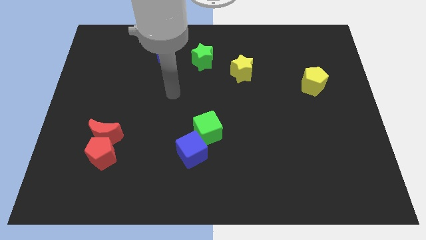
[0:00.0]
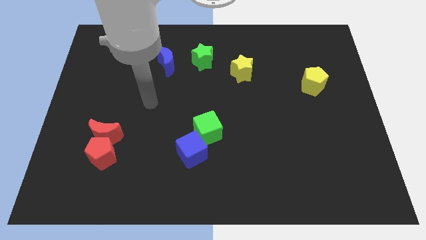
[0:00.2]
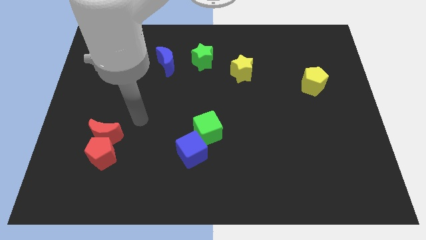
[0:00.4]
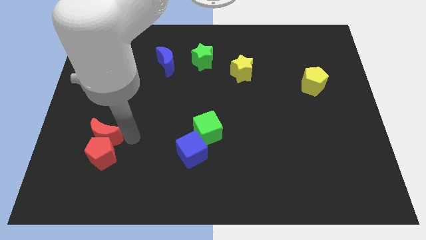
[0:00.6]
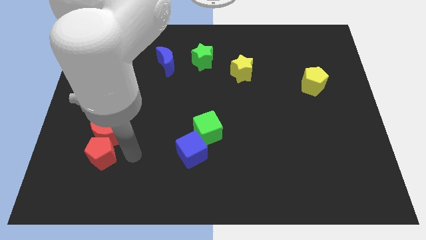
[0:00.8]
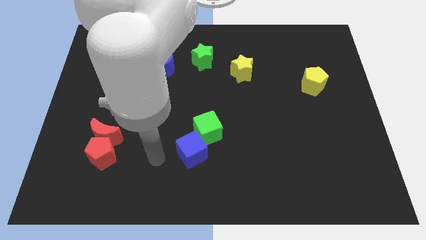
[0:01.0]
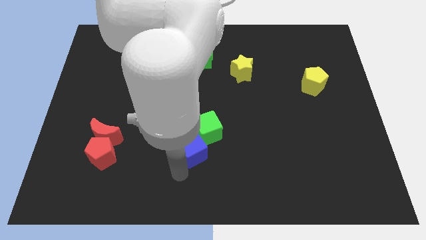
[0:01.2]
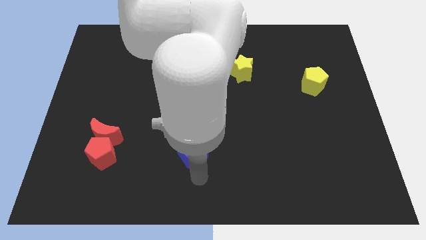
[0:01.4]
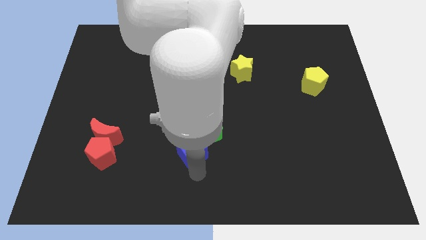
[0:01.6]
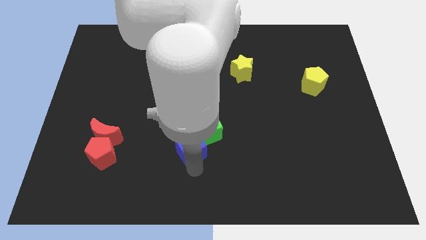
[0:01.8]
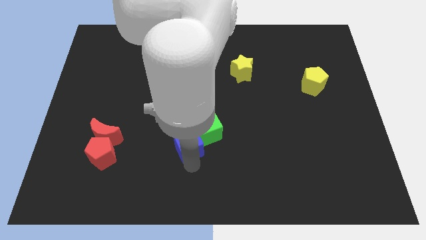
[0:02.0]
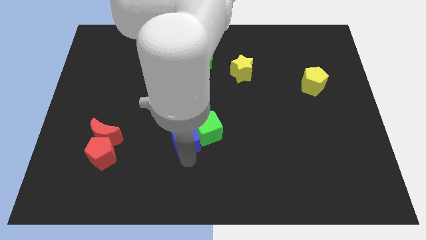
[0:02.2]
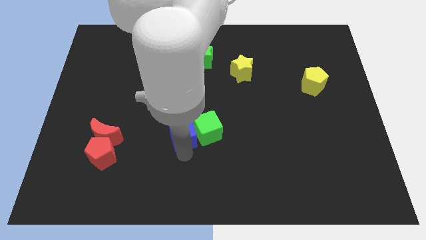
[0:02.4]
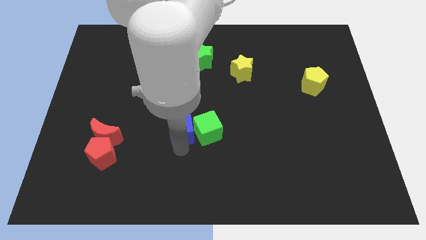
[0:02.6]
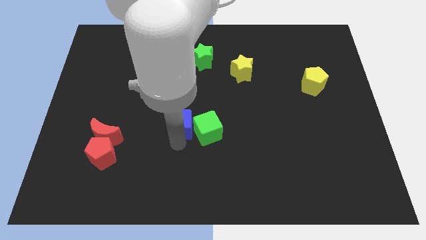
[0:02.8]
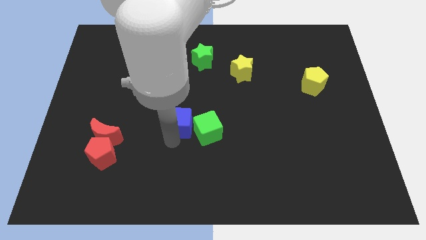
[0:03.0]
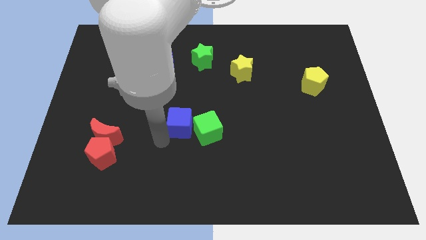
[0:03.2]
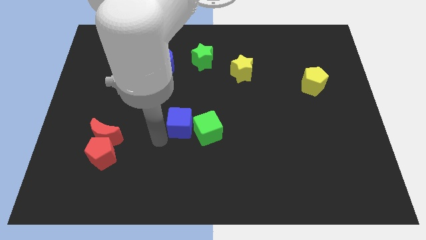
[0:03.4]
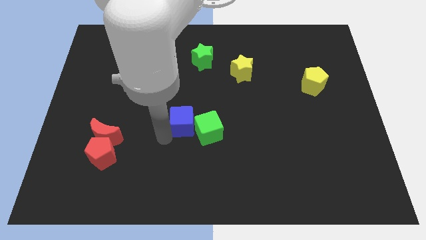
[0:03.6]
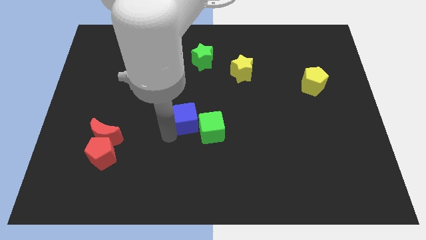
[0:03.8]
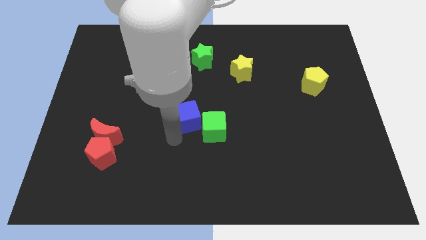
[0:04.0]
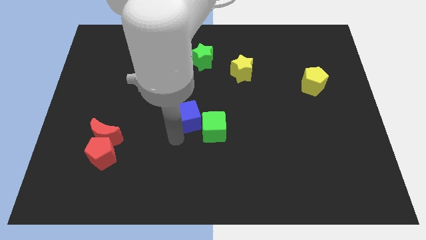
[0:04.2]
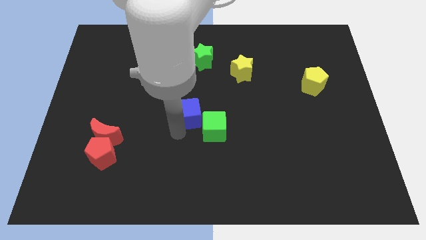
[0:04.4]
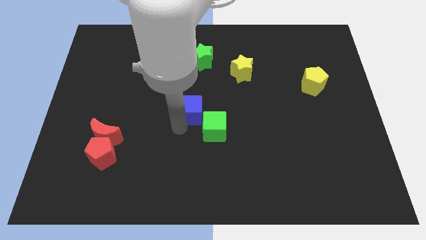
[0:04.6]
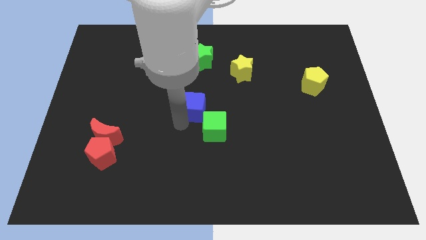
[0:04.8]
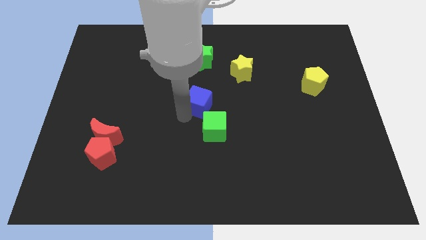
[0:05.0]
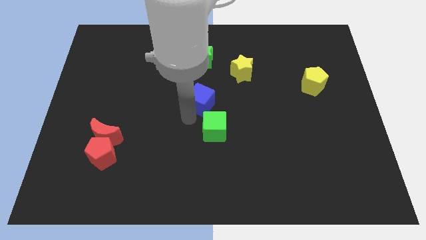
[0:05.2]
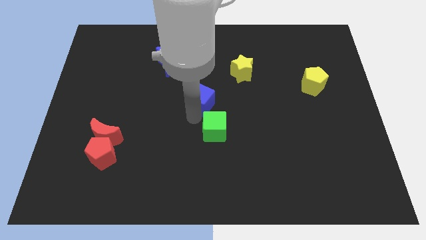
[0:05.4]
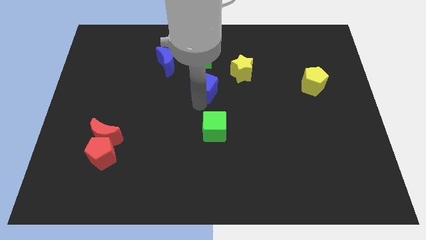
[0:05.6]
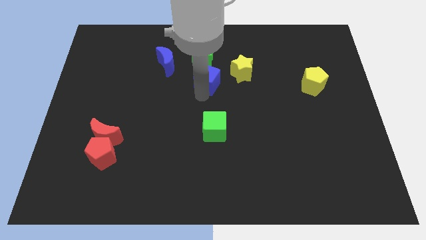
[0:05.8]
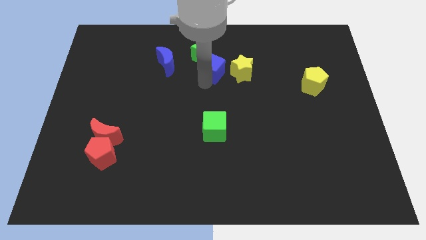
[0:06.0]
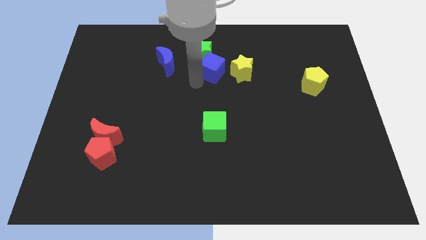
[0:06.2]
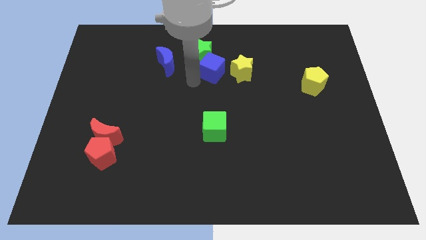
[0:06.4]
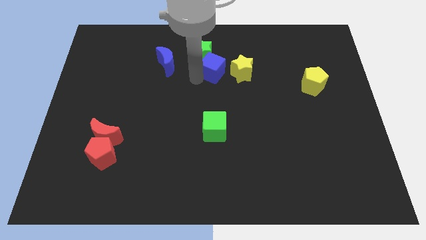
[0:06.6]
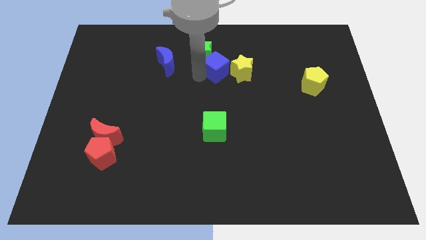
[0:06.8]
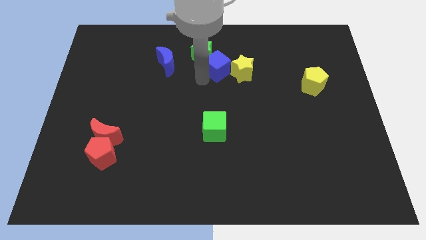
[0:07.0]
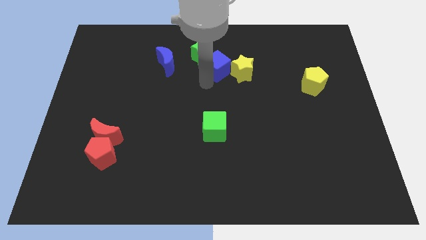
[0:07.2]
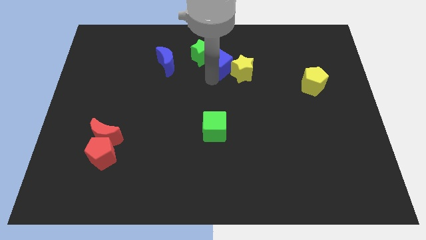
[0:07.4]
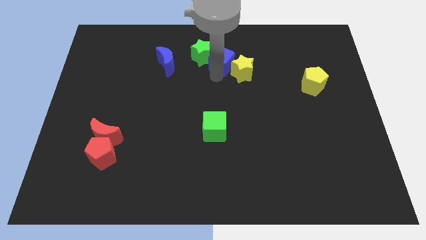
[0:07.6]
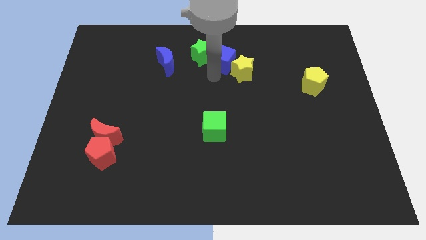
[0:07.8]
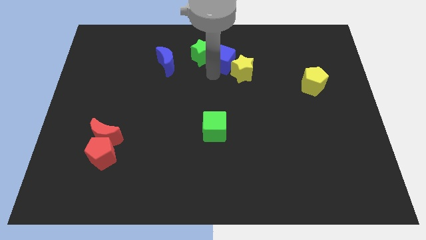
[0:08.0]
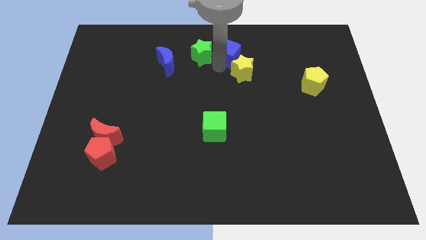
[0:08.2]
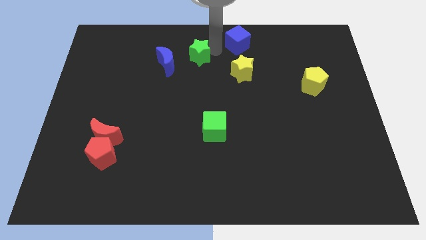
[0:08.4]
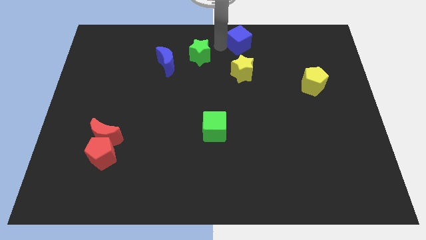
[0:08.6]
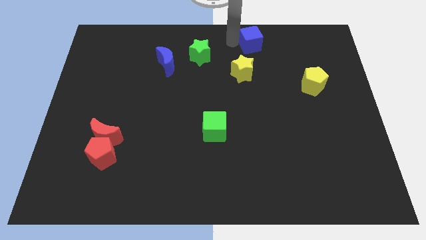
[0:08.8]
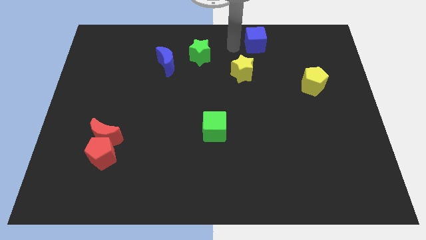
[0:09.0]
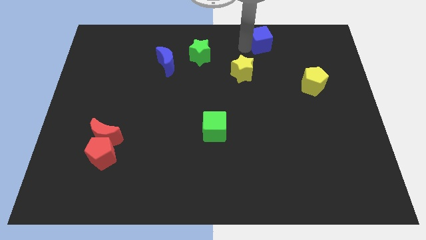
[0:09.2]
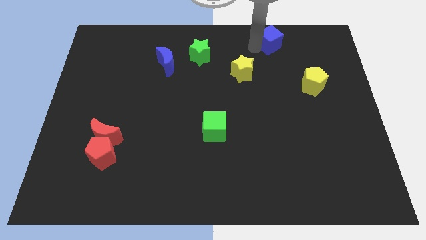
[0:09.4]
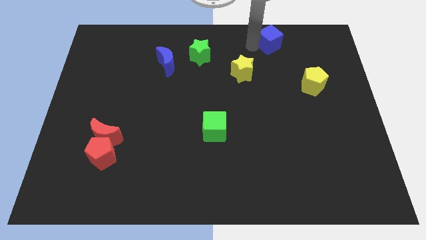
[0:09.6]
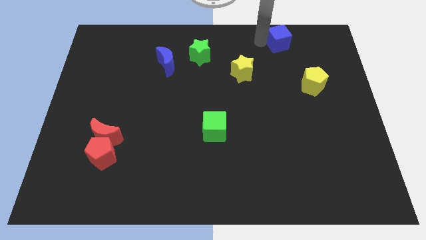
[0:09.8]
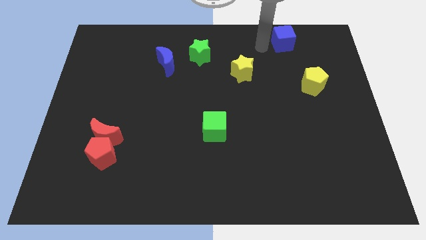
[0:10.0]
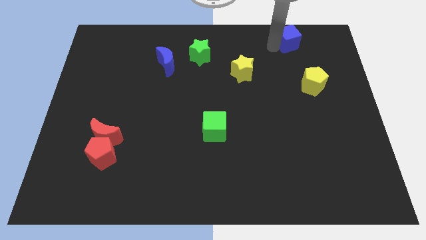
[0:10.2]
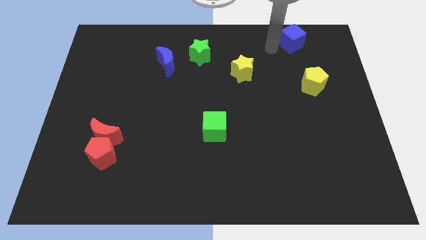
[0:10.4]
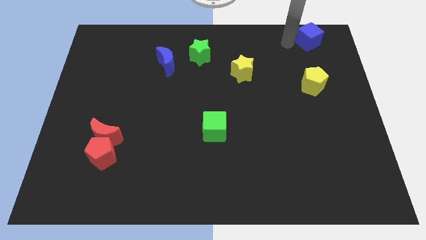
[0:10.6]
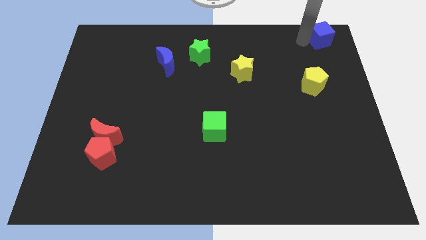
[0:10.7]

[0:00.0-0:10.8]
push the blue cube to the top right corner

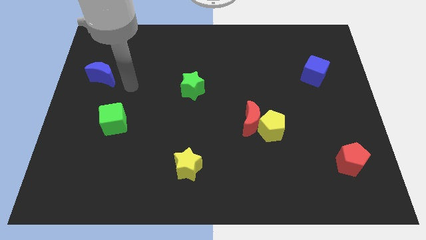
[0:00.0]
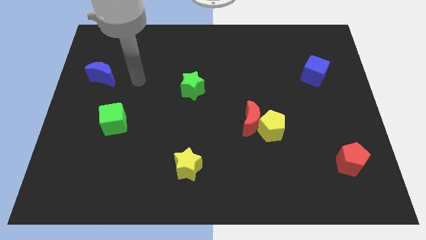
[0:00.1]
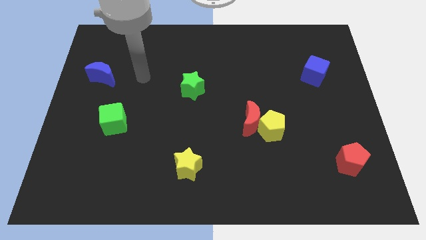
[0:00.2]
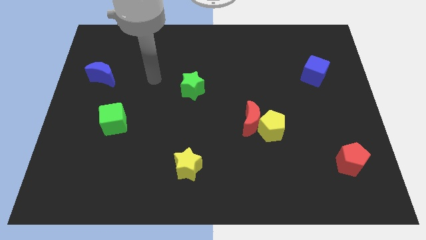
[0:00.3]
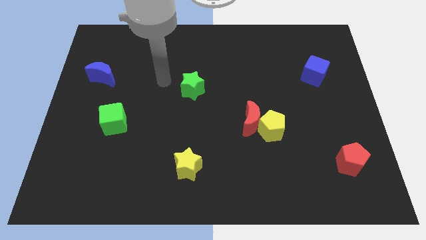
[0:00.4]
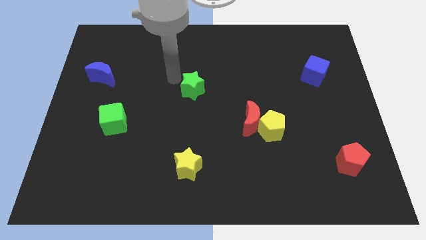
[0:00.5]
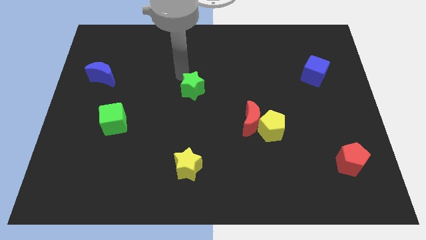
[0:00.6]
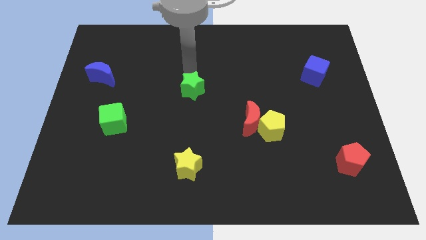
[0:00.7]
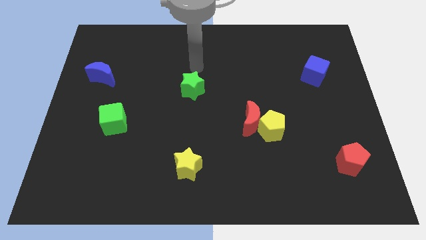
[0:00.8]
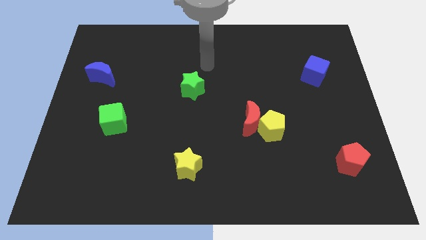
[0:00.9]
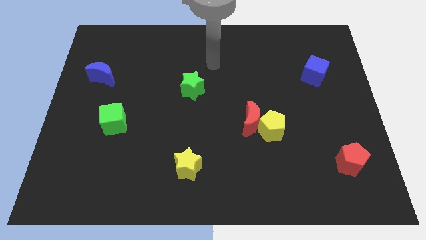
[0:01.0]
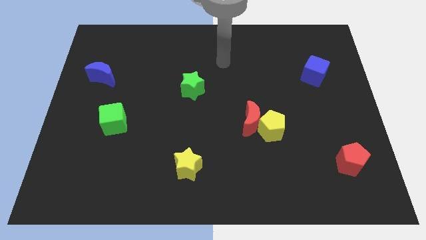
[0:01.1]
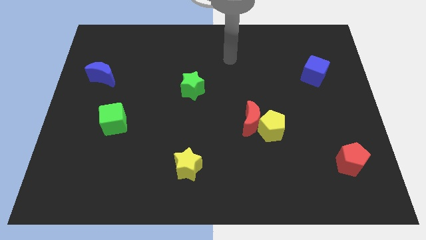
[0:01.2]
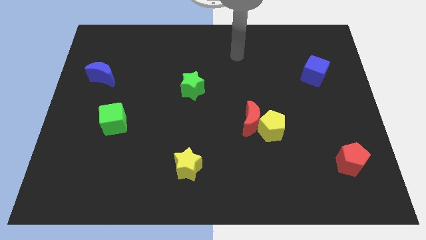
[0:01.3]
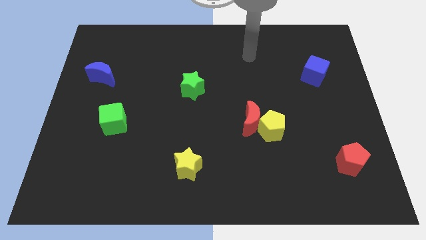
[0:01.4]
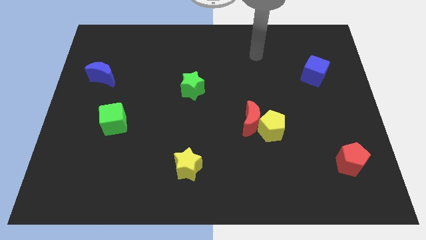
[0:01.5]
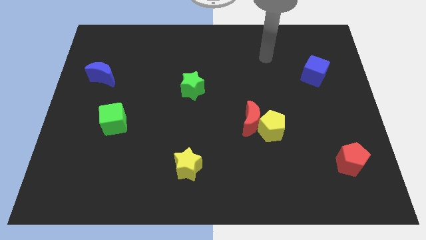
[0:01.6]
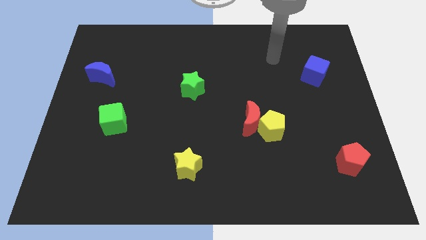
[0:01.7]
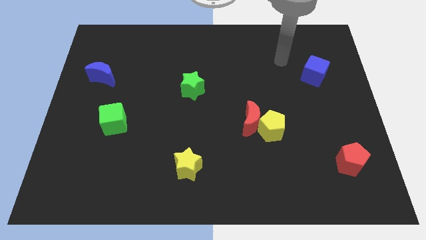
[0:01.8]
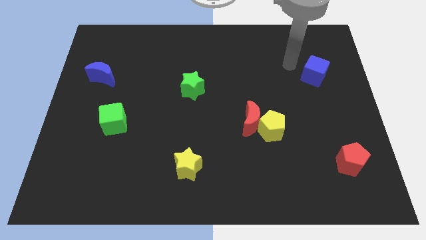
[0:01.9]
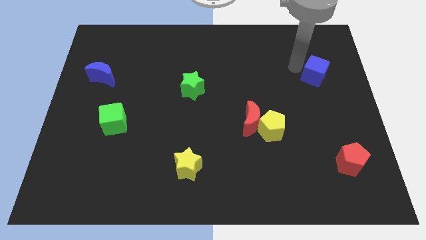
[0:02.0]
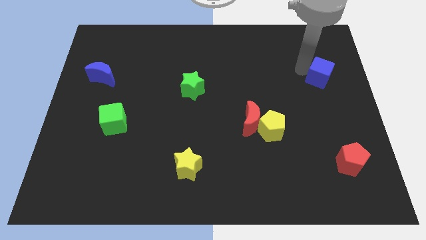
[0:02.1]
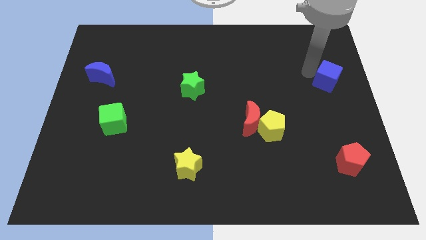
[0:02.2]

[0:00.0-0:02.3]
move the blue cube to the right side
